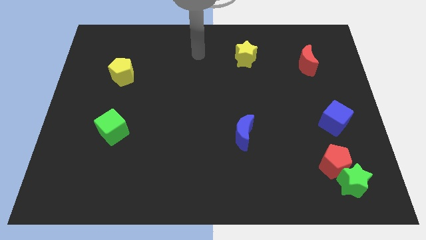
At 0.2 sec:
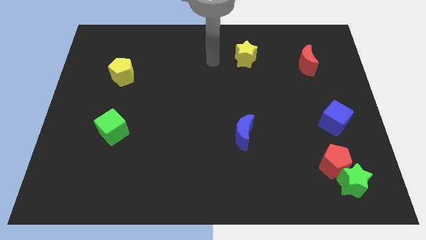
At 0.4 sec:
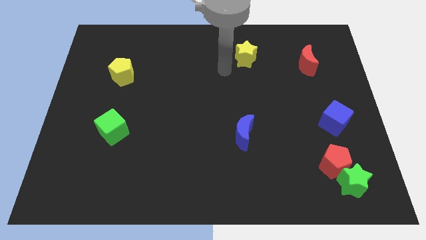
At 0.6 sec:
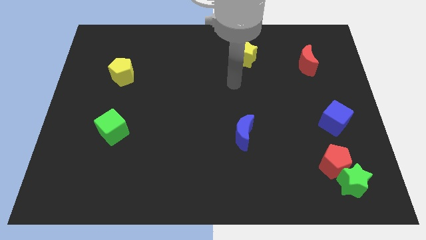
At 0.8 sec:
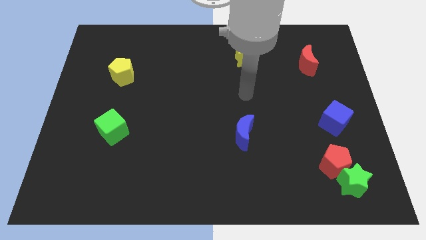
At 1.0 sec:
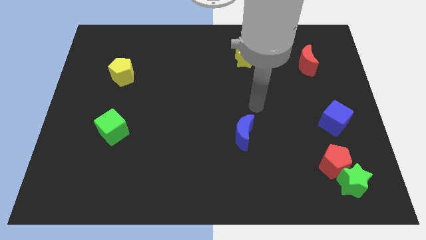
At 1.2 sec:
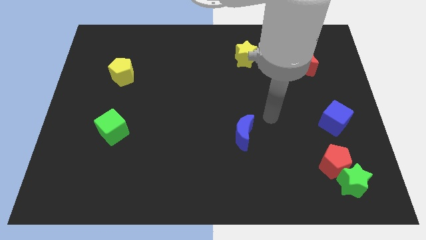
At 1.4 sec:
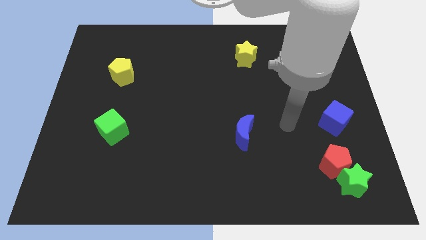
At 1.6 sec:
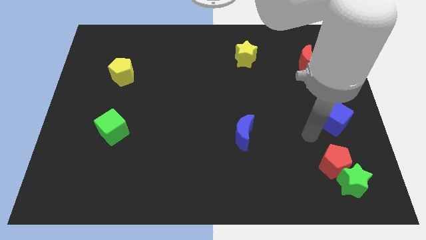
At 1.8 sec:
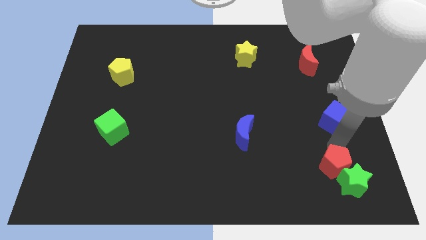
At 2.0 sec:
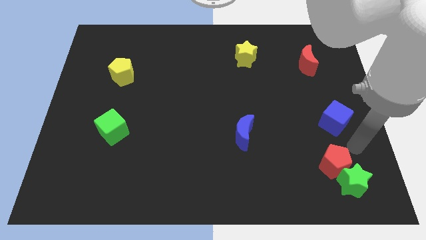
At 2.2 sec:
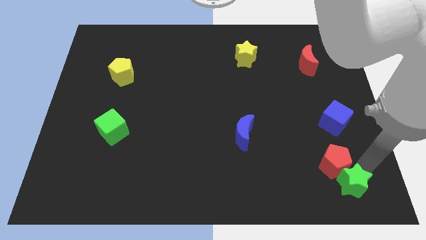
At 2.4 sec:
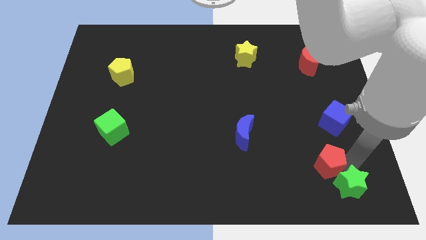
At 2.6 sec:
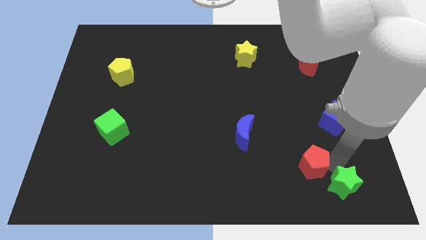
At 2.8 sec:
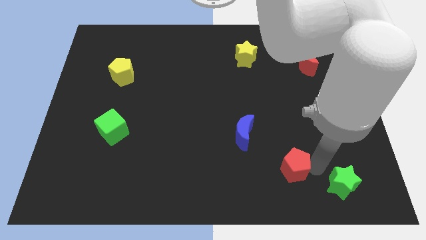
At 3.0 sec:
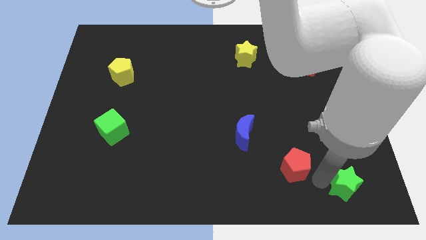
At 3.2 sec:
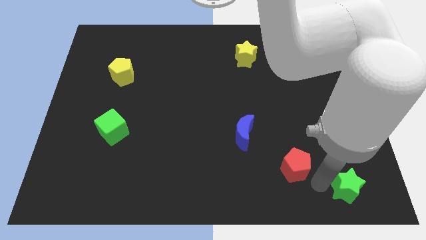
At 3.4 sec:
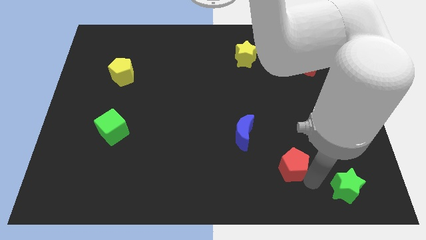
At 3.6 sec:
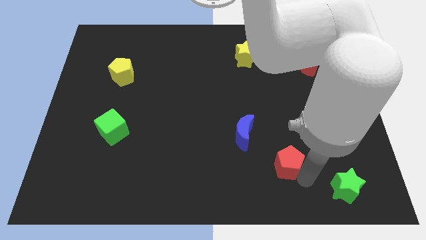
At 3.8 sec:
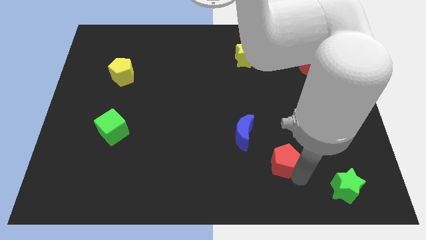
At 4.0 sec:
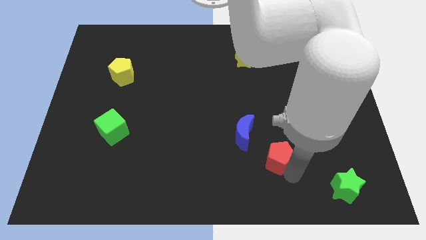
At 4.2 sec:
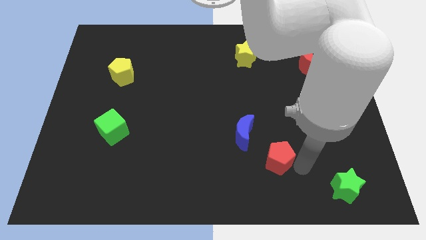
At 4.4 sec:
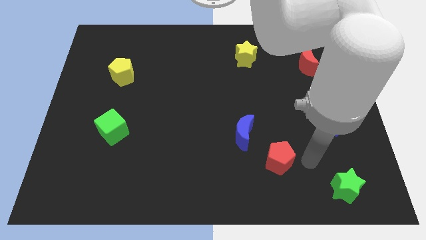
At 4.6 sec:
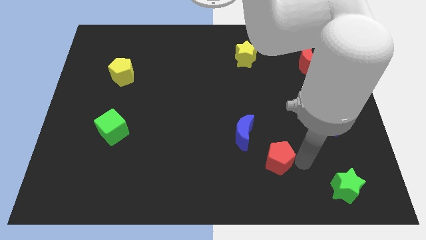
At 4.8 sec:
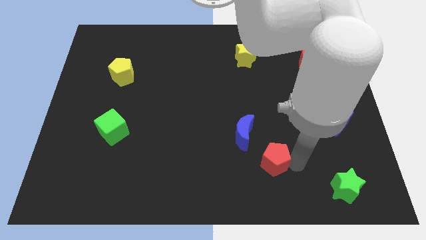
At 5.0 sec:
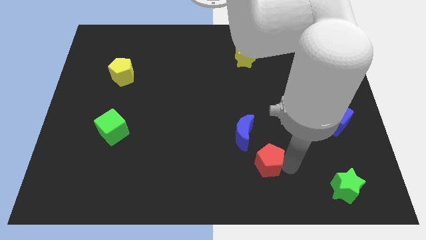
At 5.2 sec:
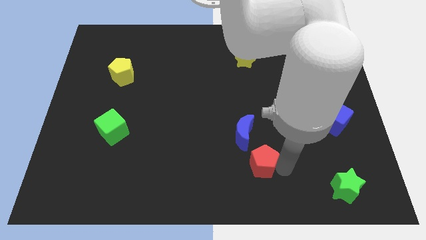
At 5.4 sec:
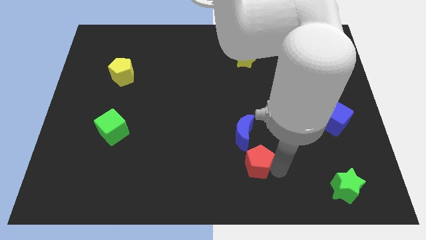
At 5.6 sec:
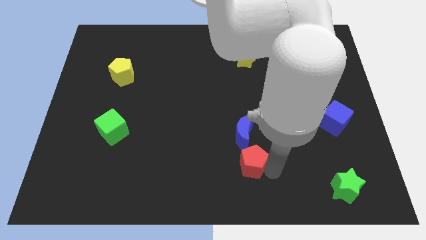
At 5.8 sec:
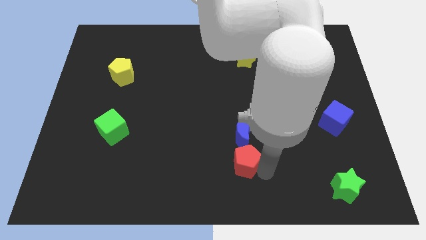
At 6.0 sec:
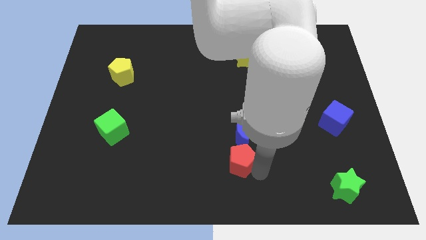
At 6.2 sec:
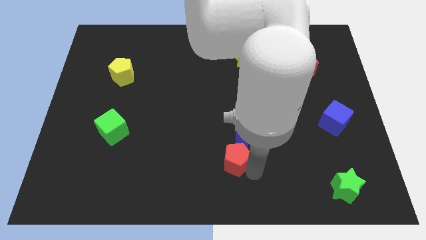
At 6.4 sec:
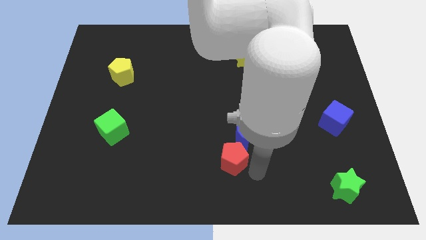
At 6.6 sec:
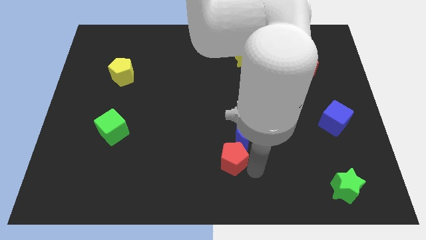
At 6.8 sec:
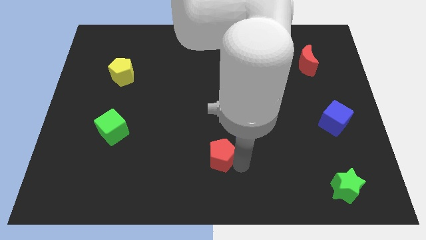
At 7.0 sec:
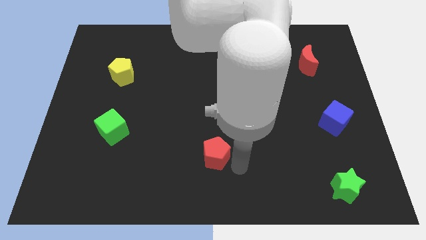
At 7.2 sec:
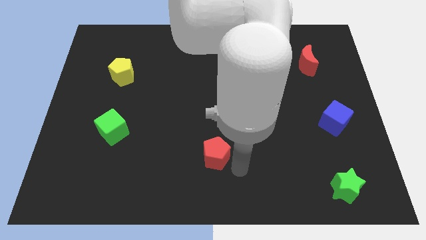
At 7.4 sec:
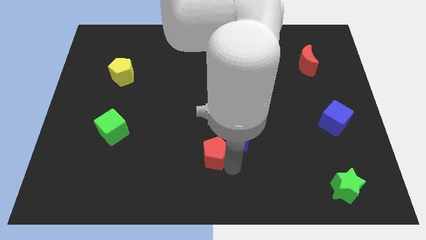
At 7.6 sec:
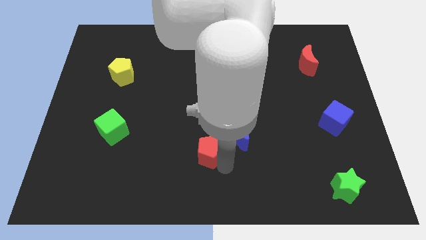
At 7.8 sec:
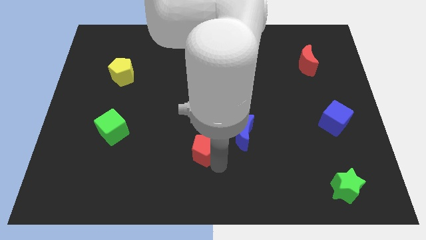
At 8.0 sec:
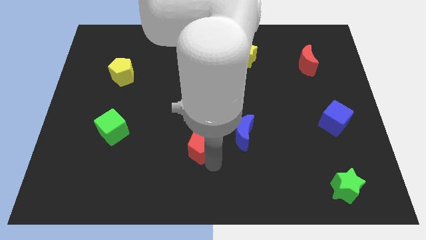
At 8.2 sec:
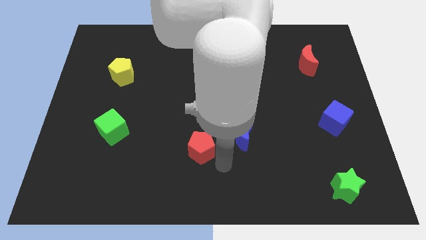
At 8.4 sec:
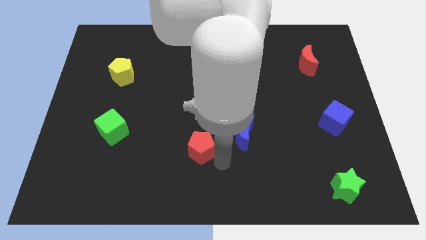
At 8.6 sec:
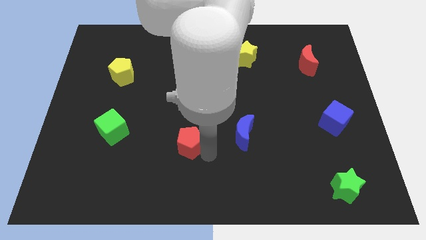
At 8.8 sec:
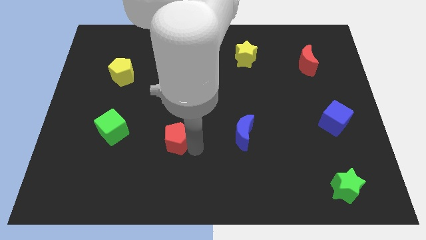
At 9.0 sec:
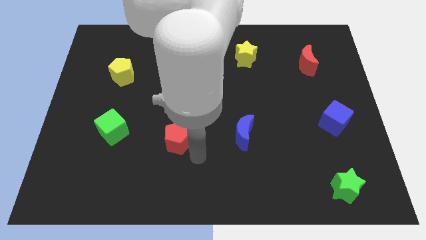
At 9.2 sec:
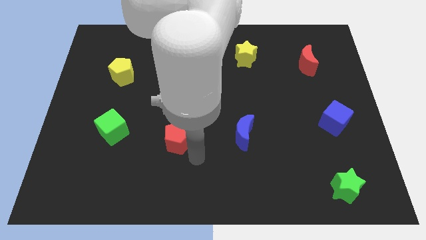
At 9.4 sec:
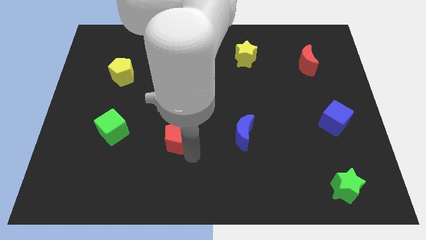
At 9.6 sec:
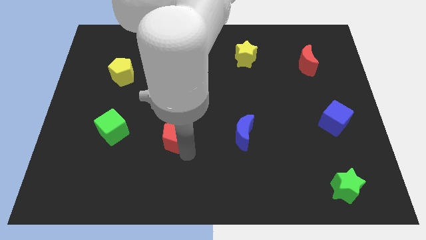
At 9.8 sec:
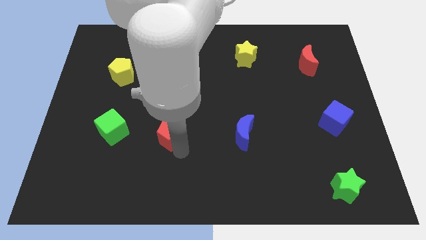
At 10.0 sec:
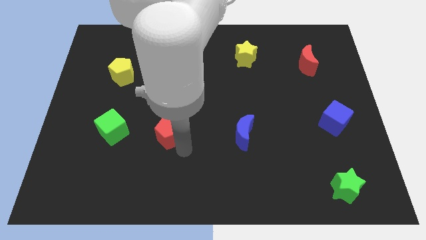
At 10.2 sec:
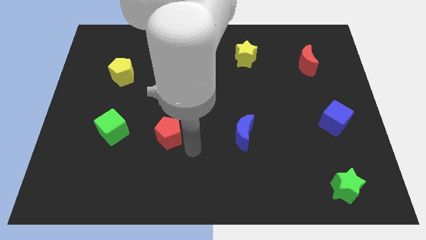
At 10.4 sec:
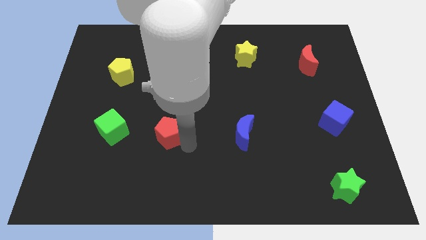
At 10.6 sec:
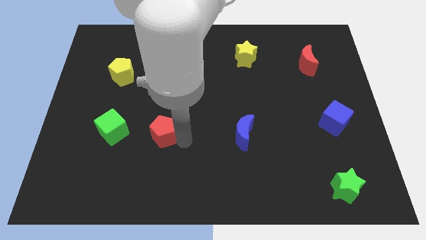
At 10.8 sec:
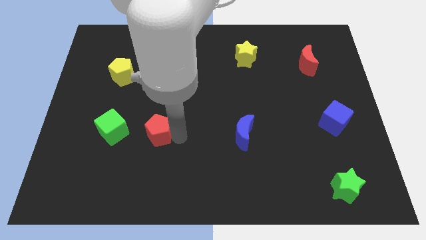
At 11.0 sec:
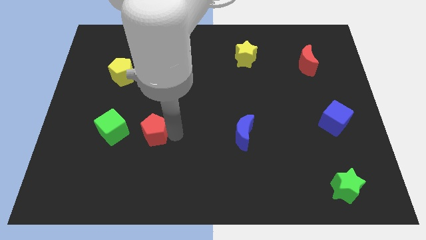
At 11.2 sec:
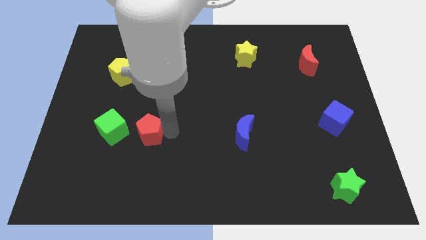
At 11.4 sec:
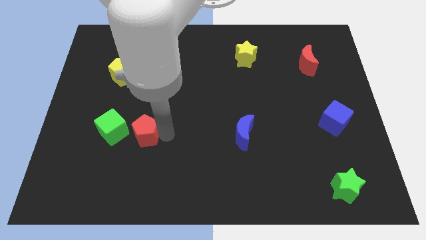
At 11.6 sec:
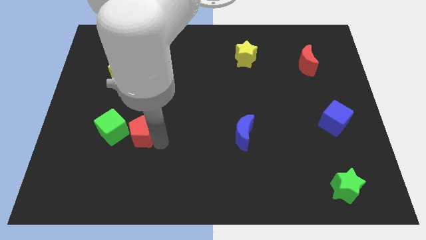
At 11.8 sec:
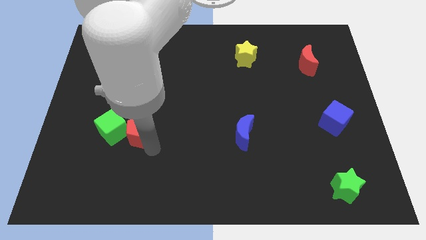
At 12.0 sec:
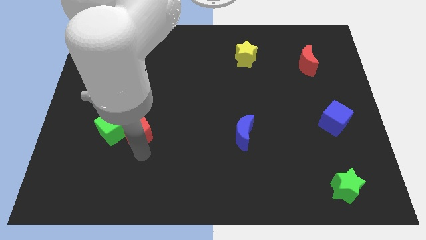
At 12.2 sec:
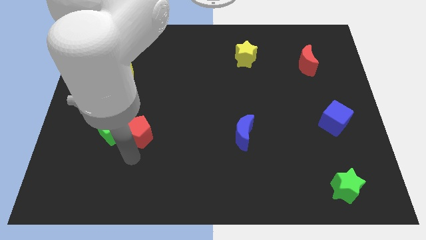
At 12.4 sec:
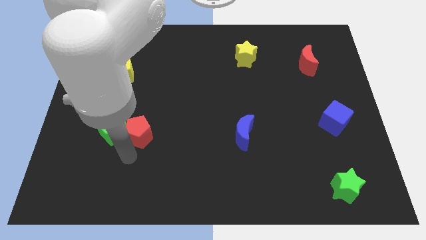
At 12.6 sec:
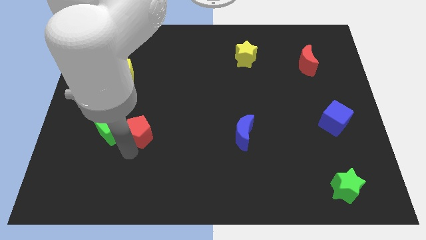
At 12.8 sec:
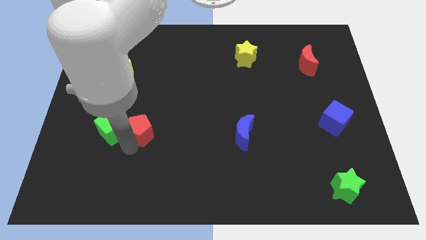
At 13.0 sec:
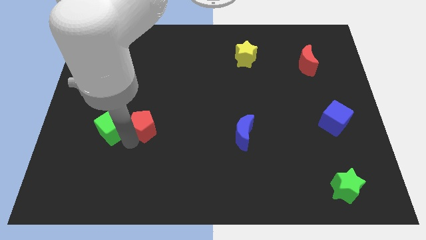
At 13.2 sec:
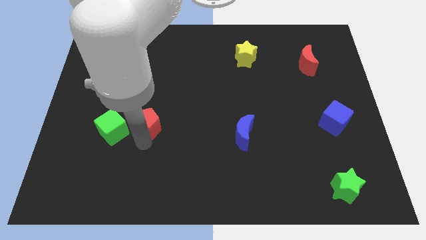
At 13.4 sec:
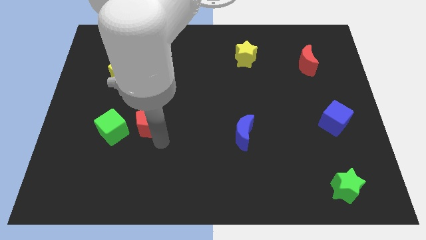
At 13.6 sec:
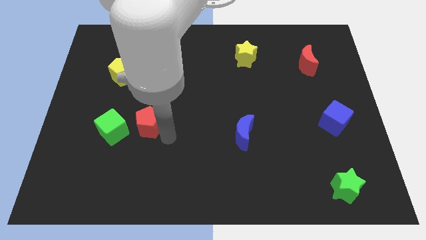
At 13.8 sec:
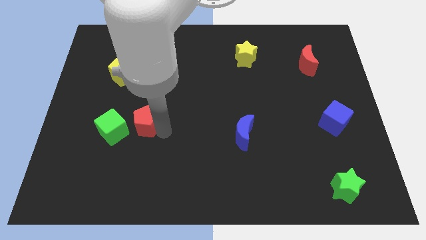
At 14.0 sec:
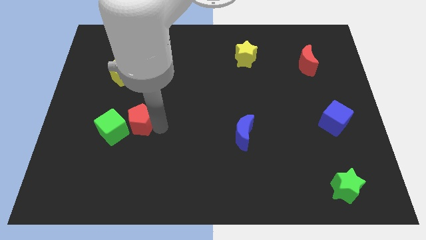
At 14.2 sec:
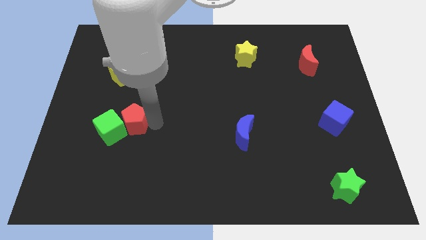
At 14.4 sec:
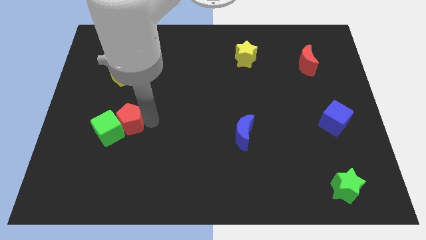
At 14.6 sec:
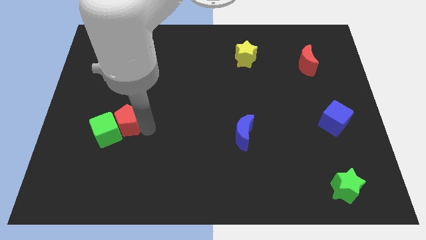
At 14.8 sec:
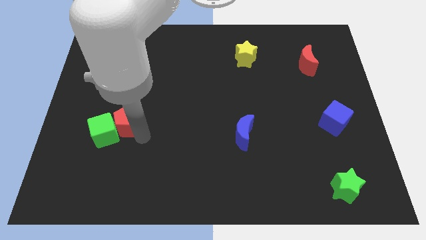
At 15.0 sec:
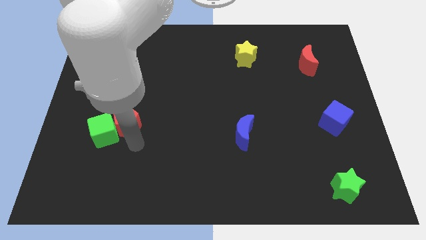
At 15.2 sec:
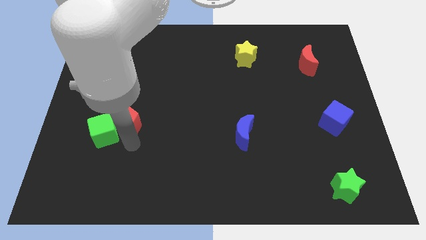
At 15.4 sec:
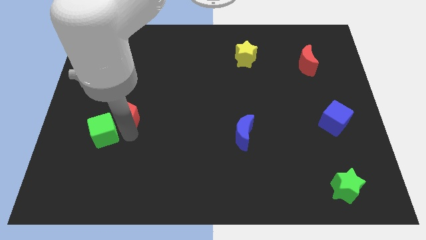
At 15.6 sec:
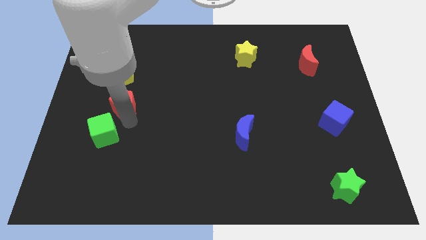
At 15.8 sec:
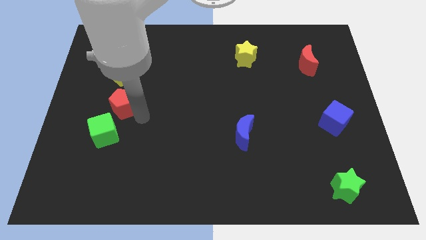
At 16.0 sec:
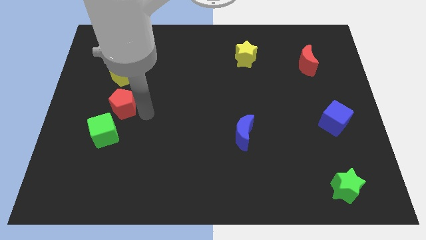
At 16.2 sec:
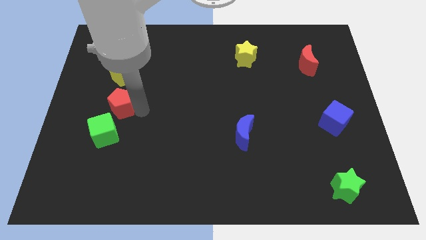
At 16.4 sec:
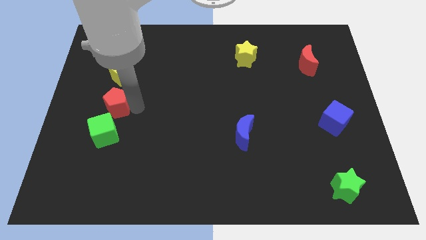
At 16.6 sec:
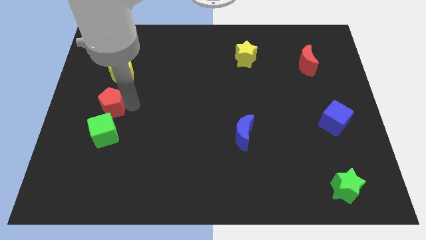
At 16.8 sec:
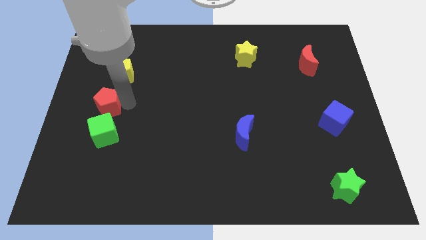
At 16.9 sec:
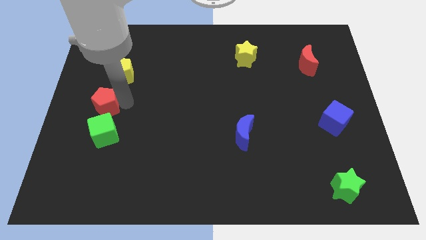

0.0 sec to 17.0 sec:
move the red pentagon to the center left
